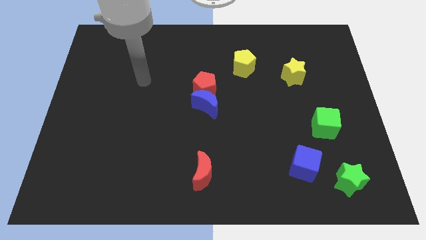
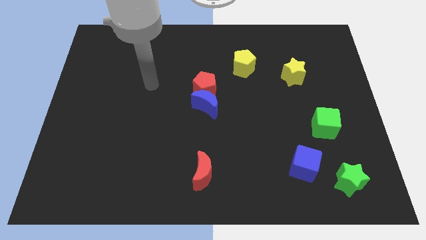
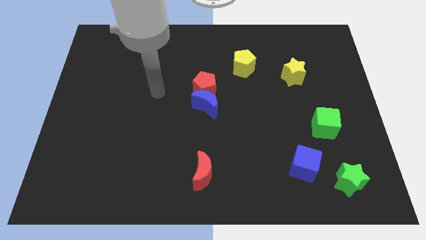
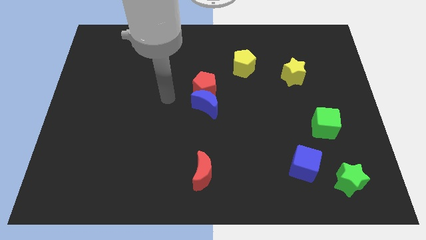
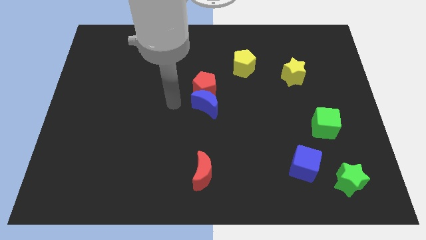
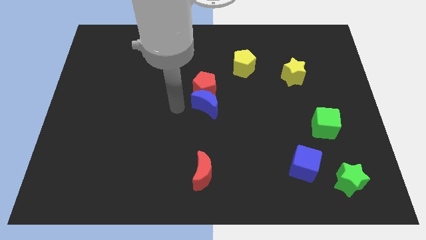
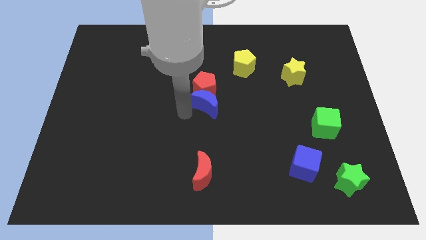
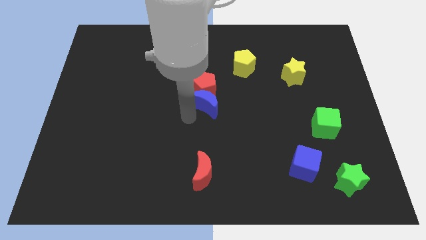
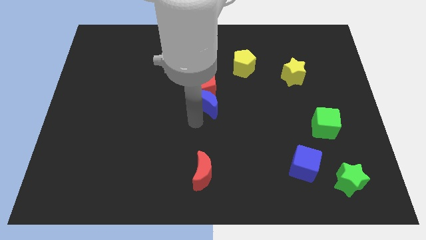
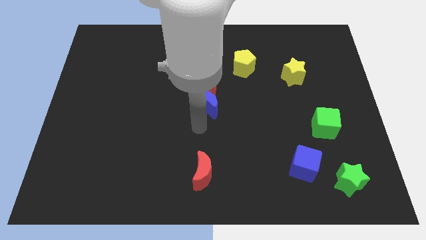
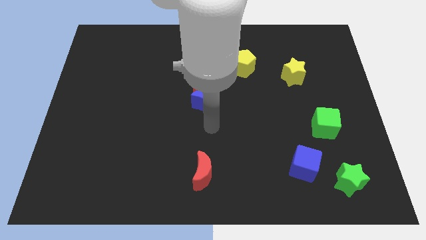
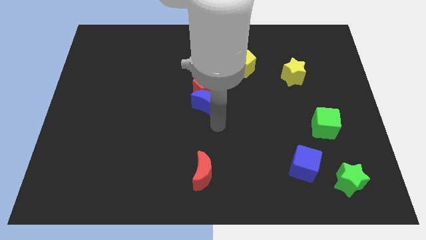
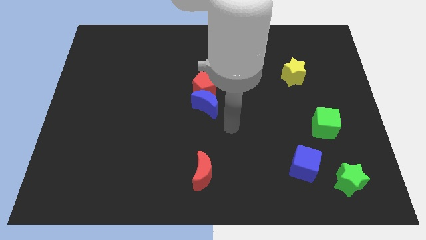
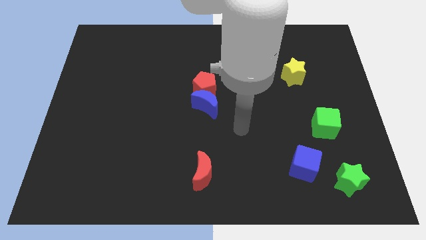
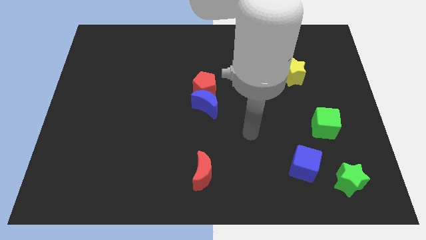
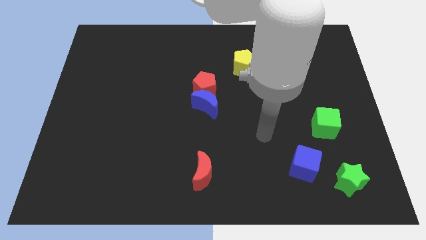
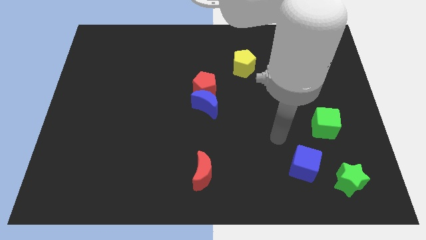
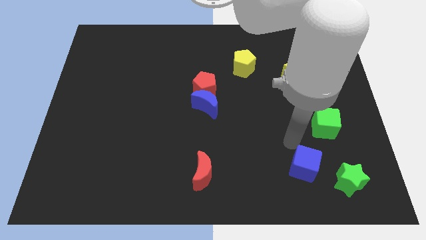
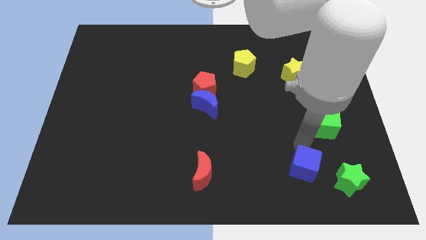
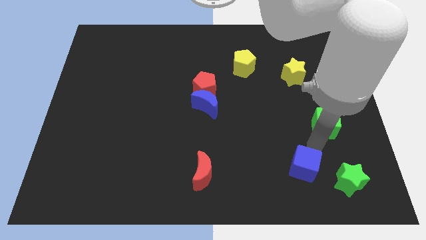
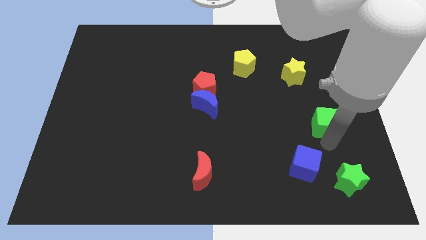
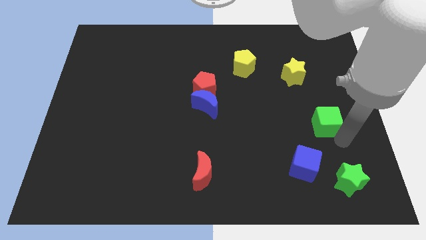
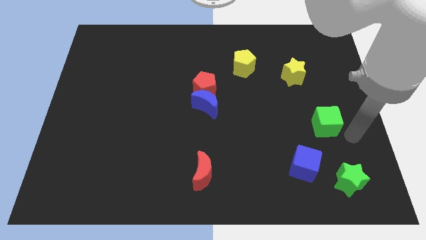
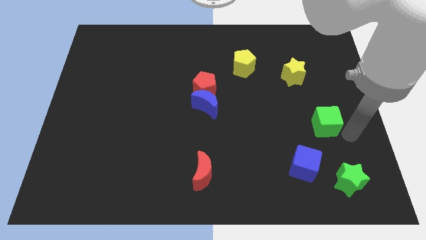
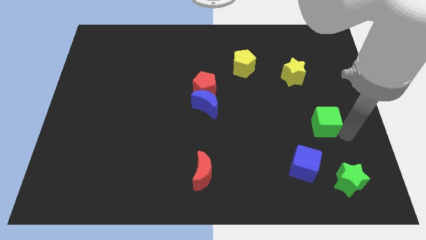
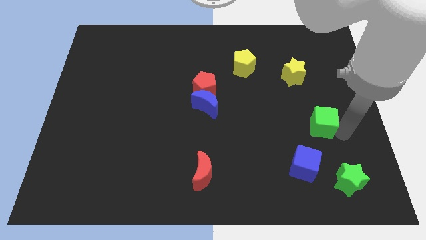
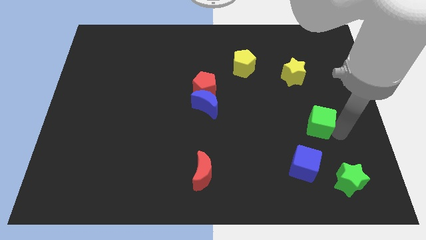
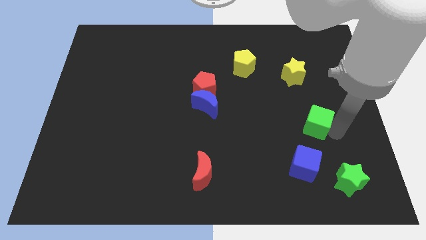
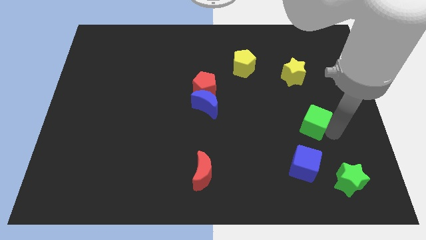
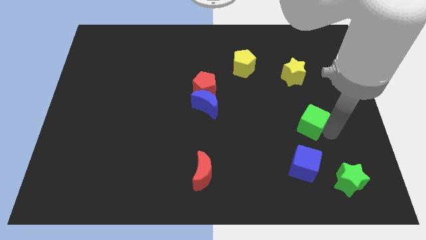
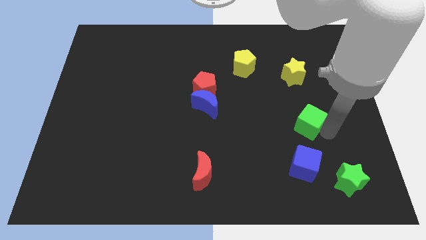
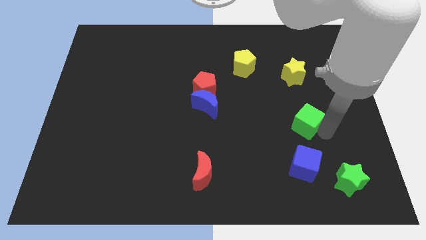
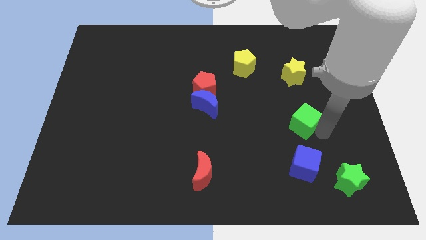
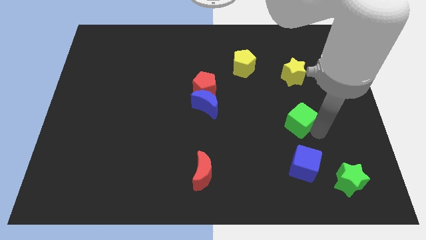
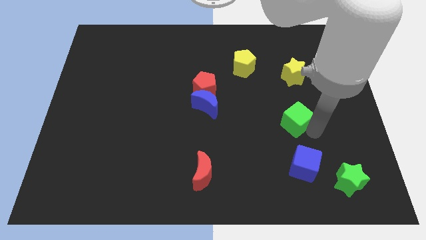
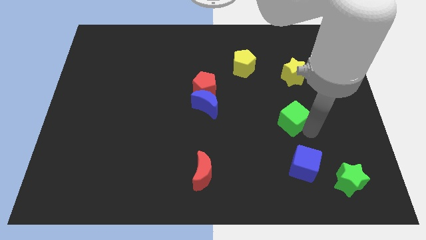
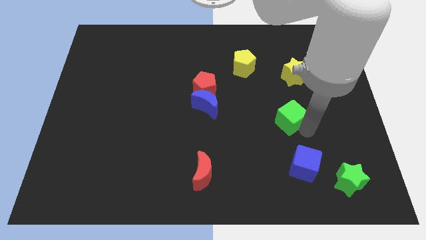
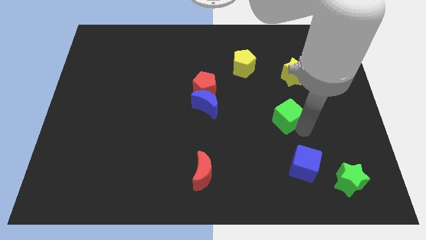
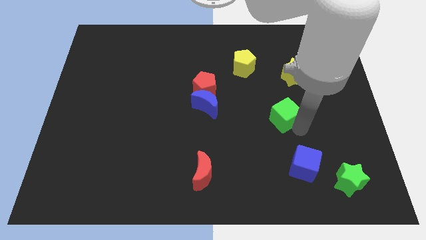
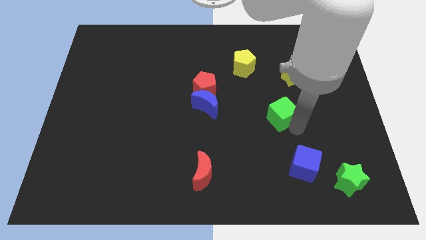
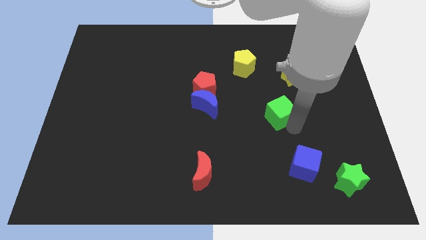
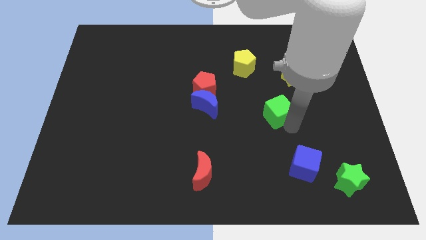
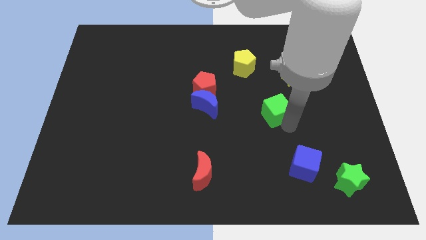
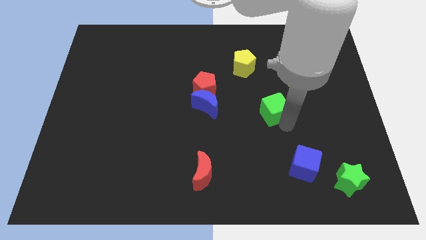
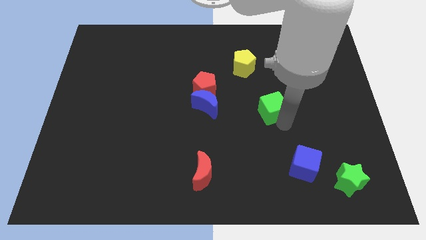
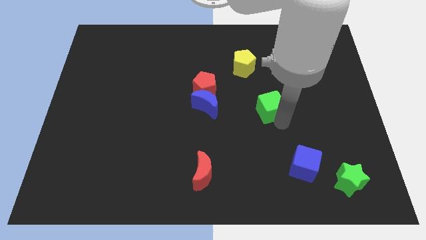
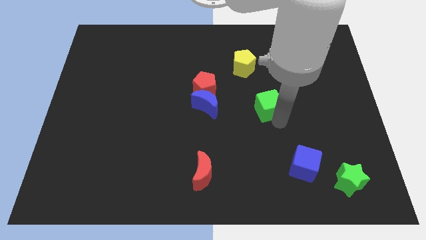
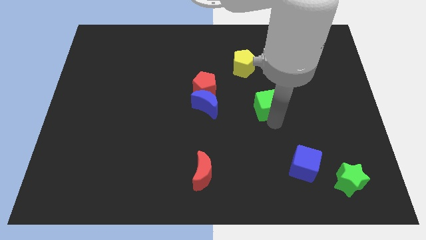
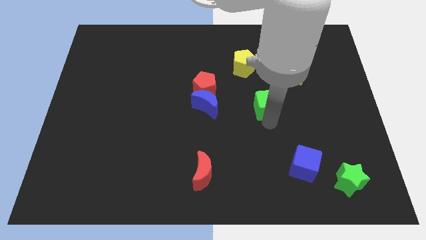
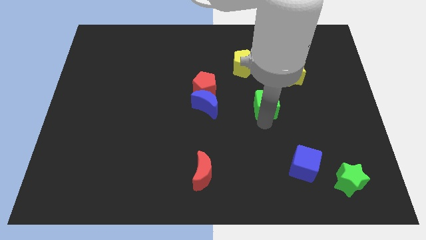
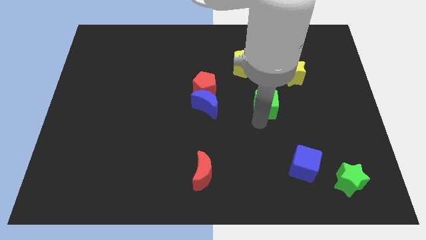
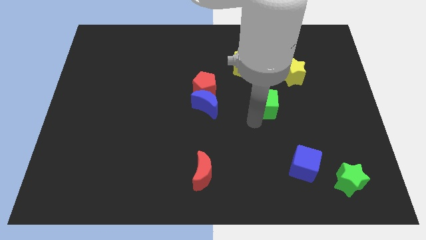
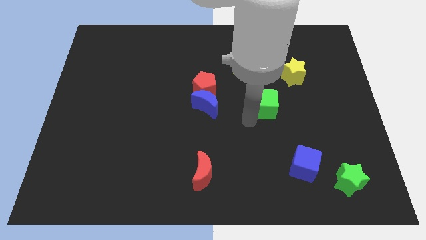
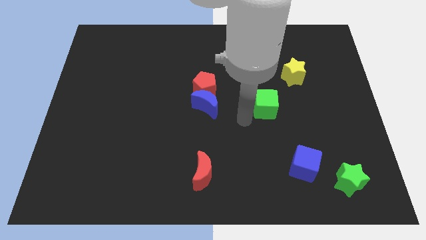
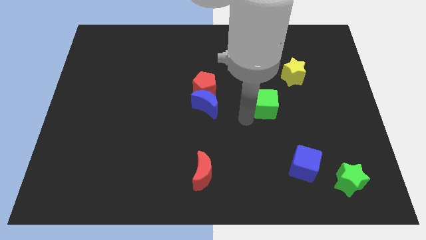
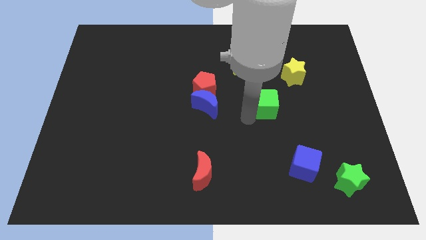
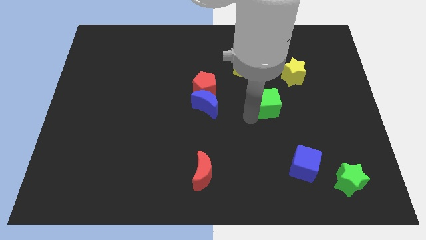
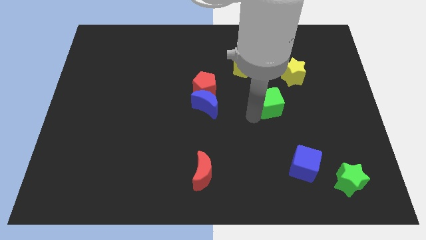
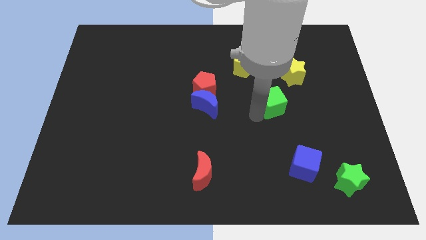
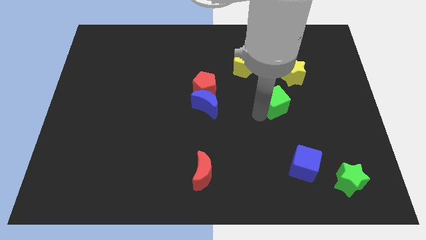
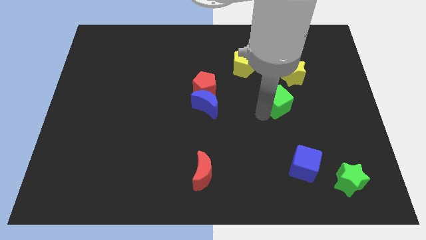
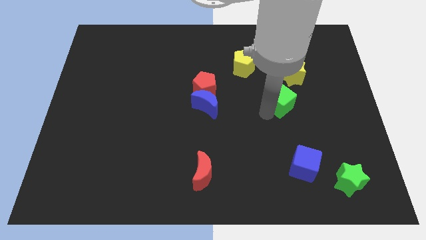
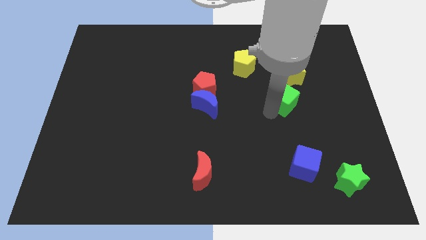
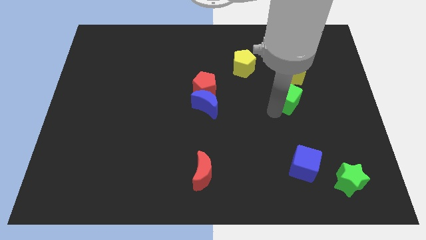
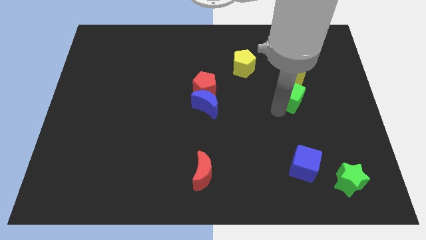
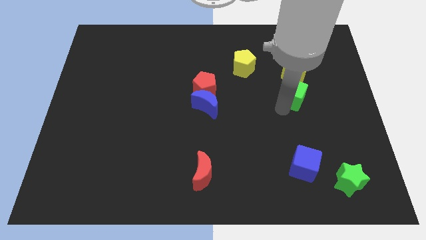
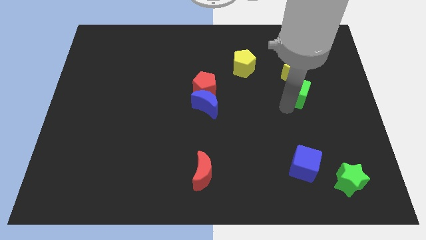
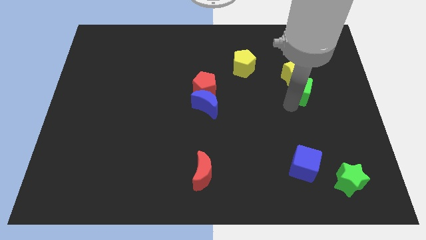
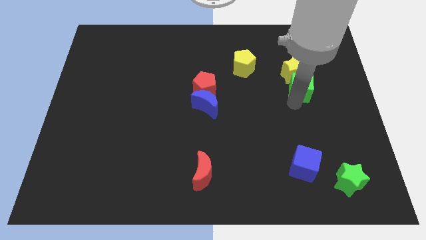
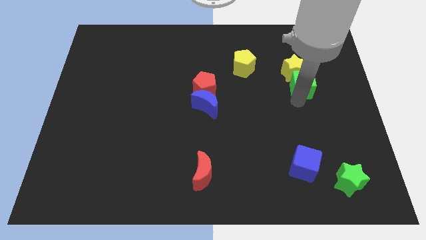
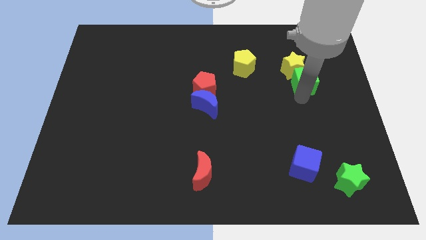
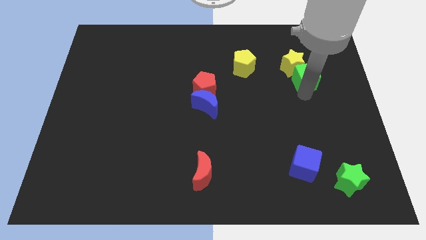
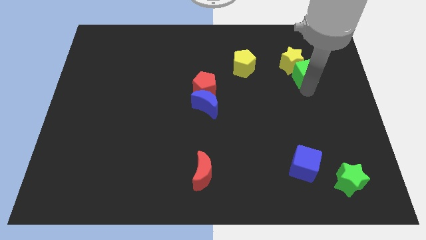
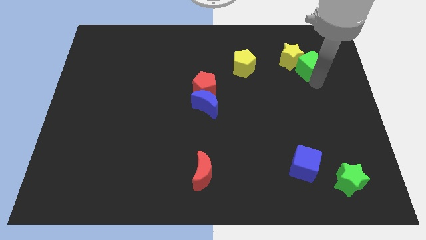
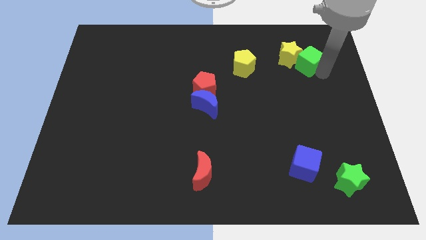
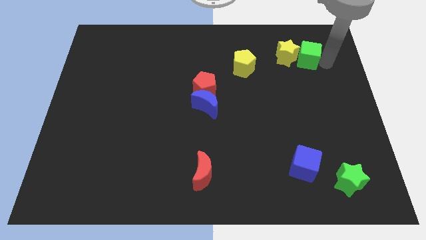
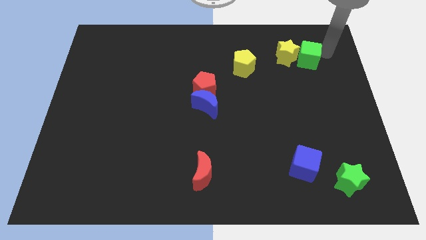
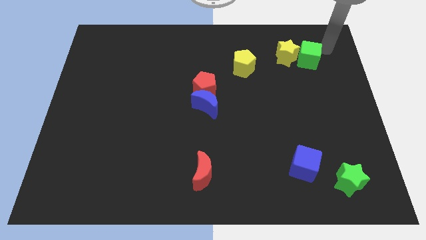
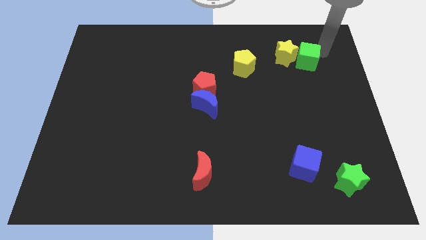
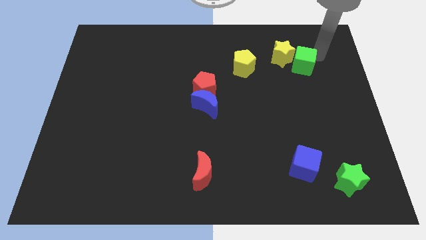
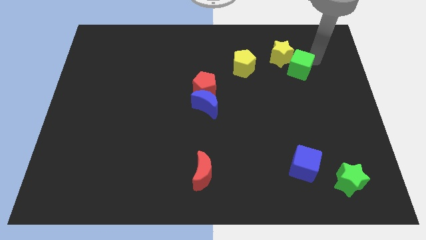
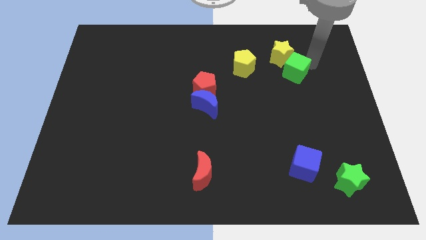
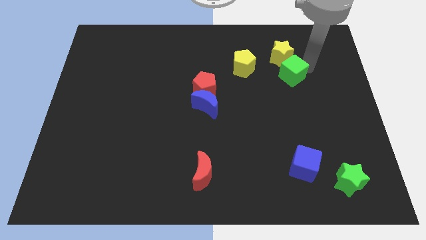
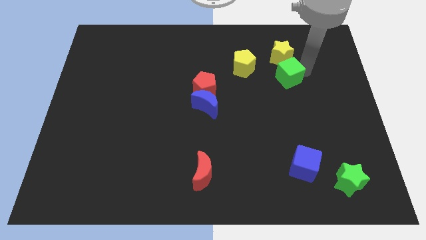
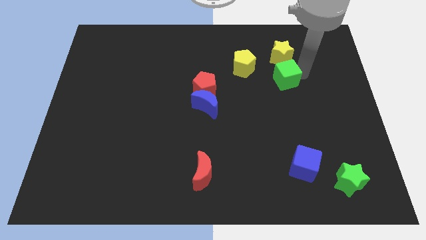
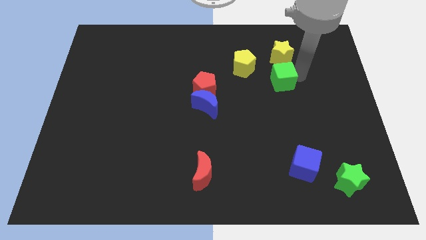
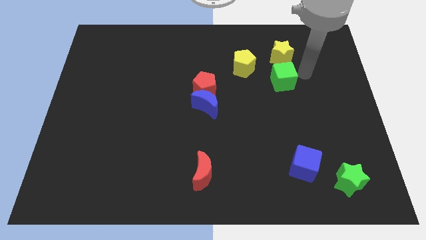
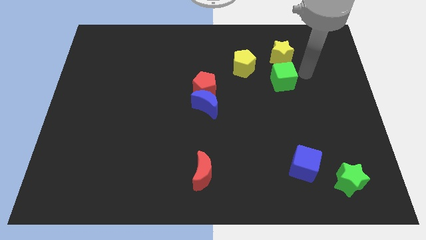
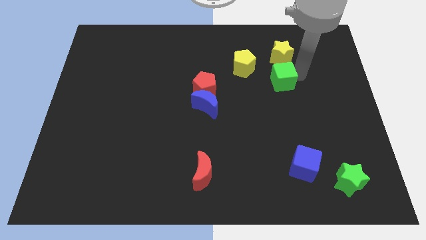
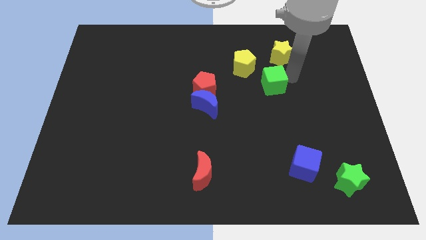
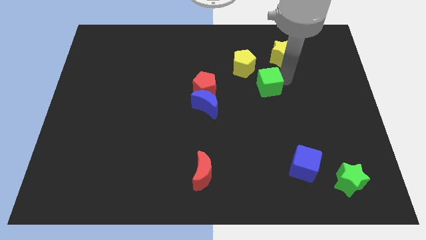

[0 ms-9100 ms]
push the green cube right of the red pentagon
